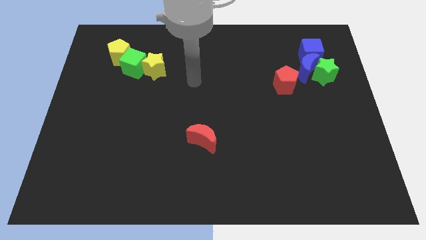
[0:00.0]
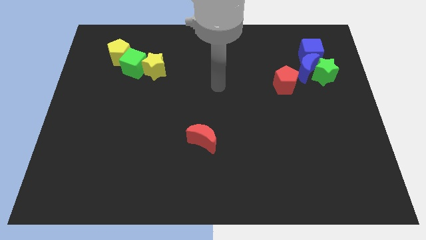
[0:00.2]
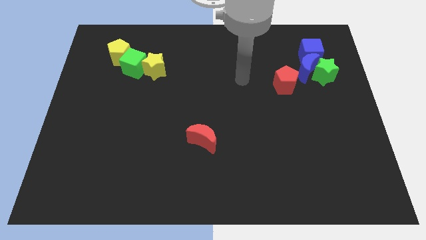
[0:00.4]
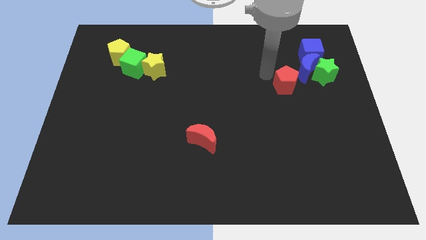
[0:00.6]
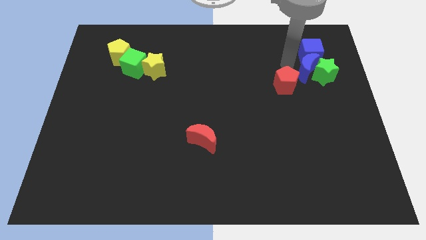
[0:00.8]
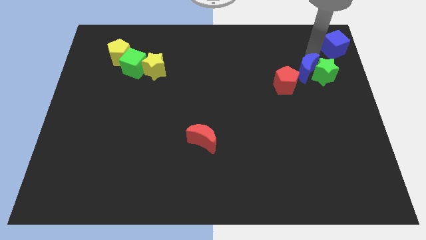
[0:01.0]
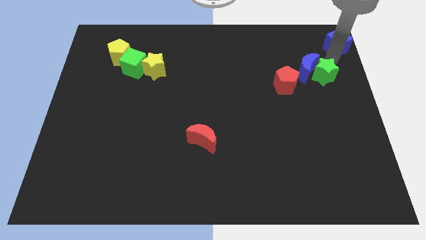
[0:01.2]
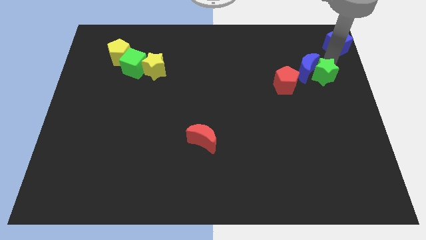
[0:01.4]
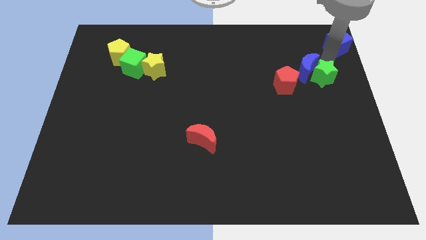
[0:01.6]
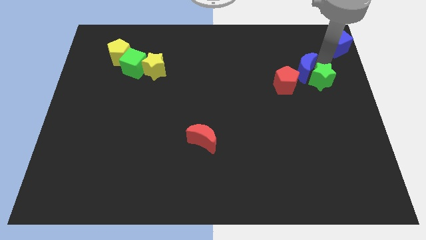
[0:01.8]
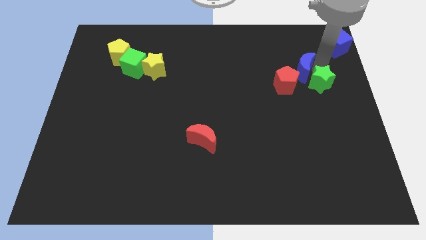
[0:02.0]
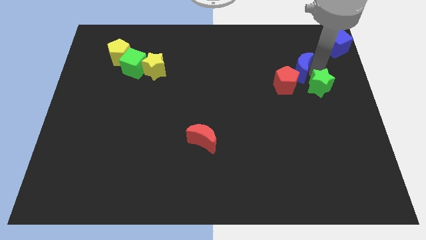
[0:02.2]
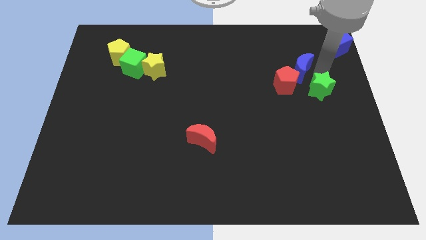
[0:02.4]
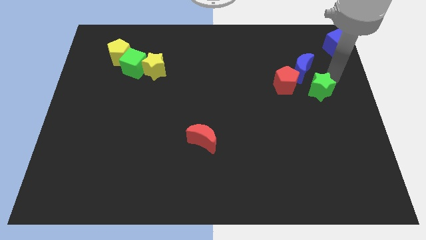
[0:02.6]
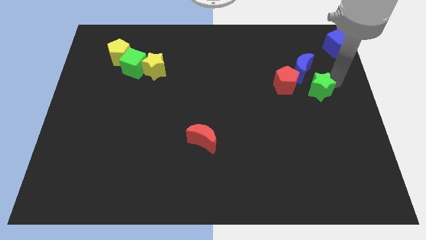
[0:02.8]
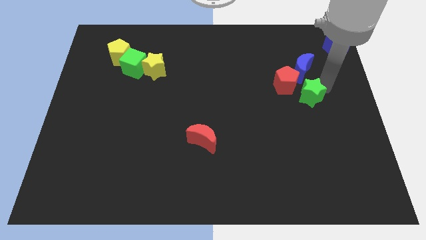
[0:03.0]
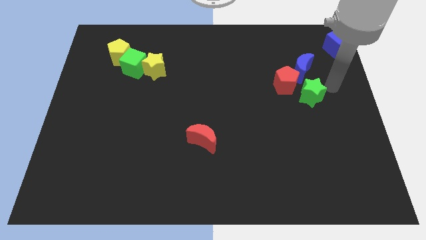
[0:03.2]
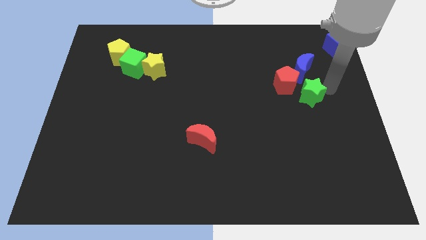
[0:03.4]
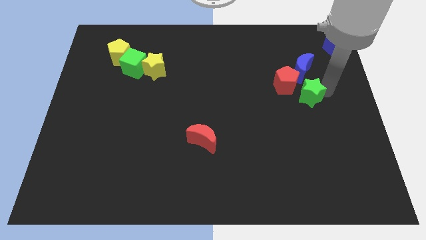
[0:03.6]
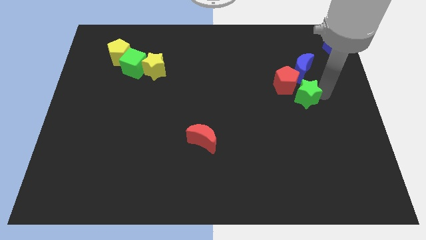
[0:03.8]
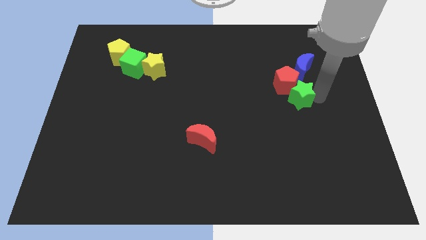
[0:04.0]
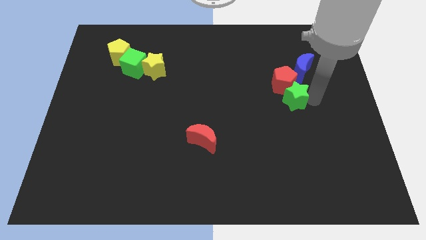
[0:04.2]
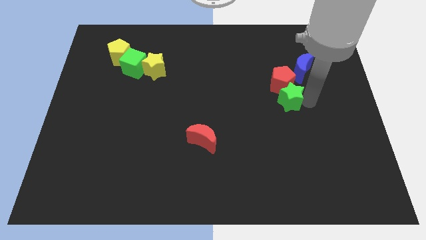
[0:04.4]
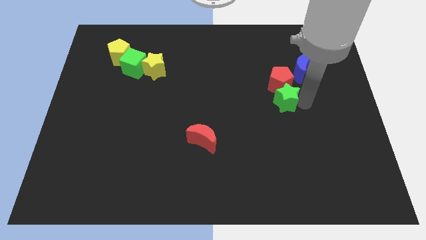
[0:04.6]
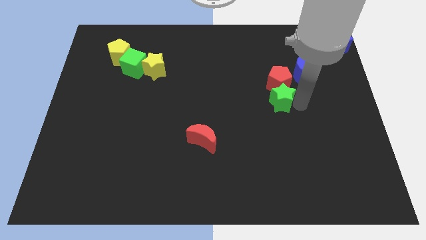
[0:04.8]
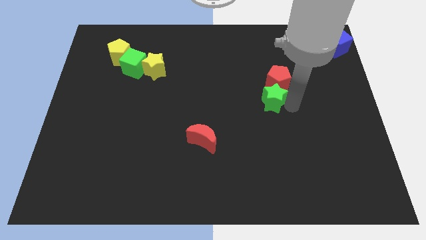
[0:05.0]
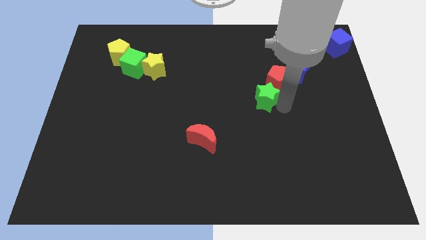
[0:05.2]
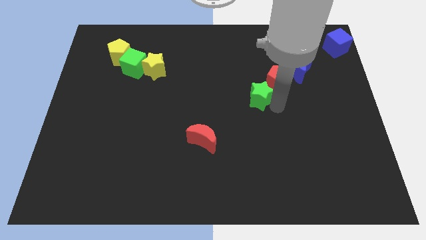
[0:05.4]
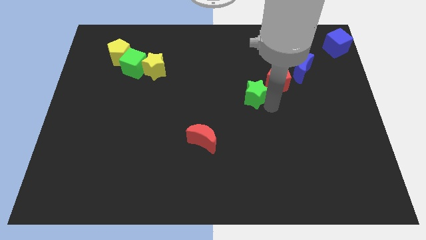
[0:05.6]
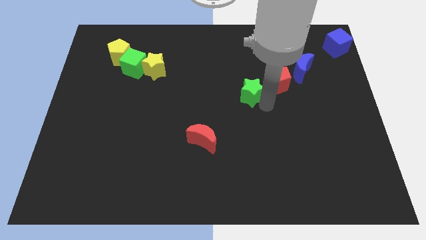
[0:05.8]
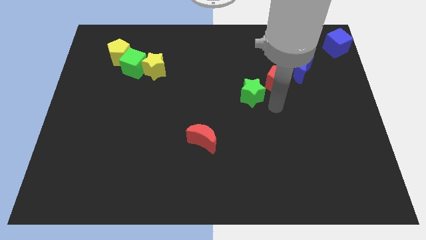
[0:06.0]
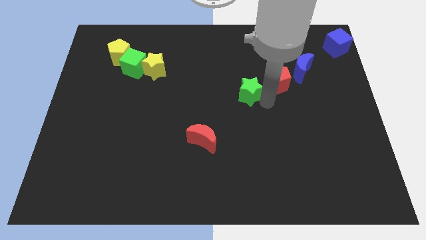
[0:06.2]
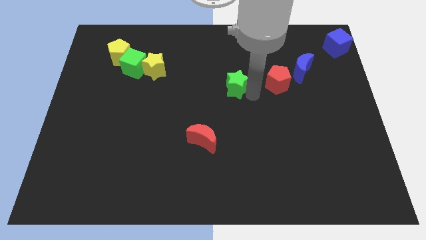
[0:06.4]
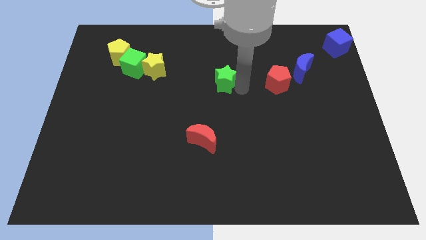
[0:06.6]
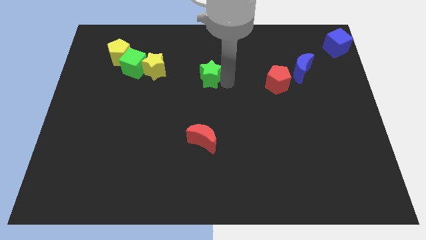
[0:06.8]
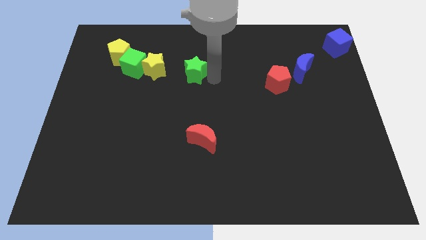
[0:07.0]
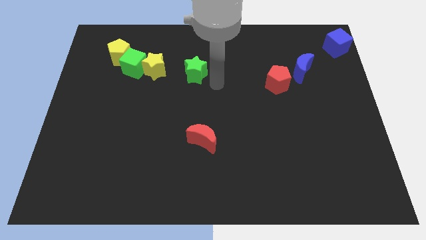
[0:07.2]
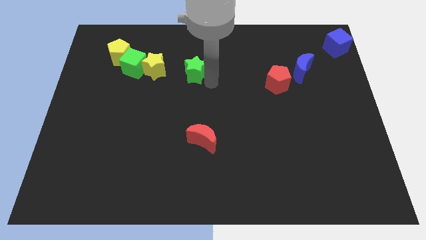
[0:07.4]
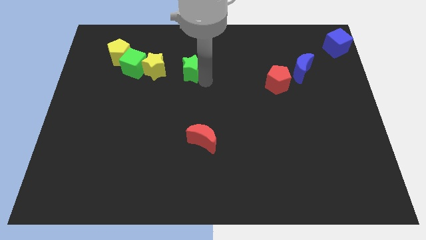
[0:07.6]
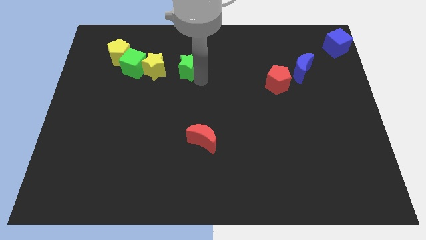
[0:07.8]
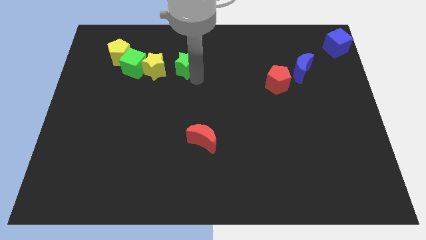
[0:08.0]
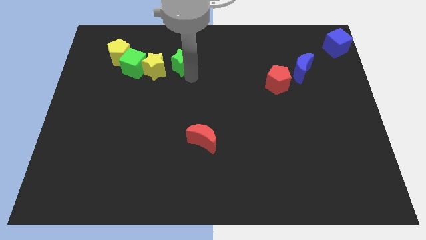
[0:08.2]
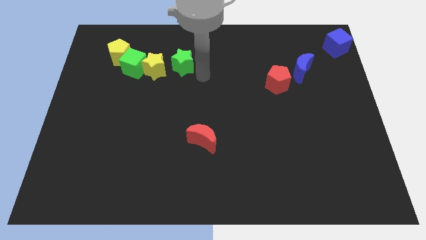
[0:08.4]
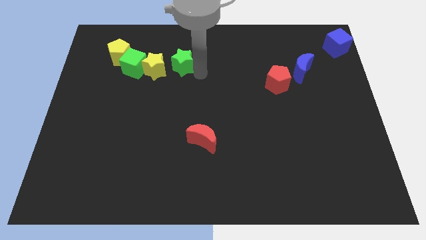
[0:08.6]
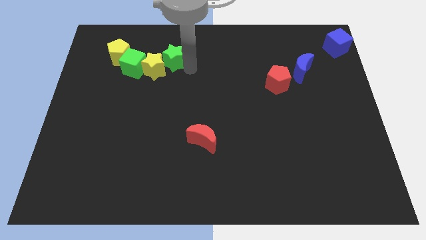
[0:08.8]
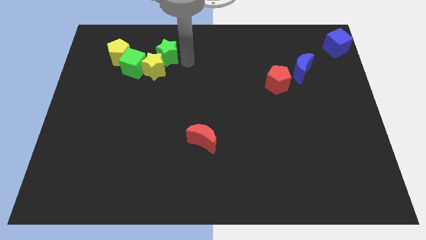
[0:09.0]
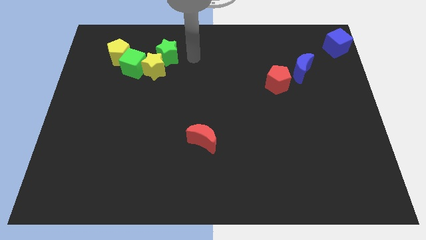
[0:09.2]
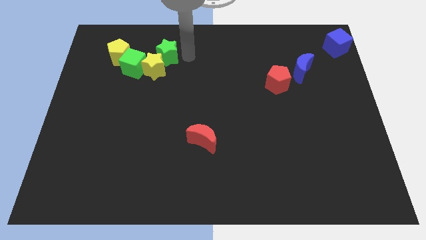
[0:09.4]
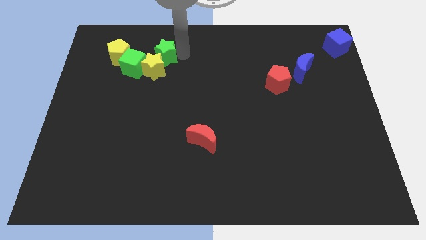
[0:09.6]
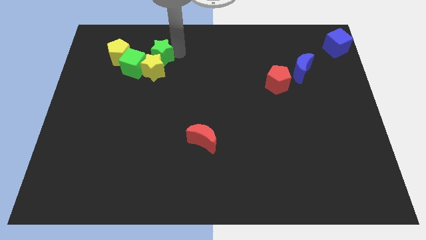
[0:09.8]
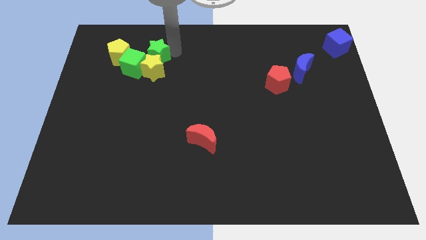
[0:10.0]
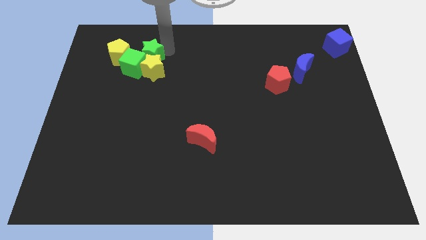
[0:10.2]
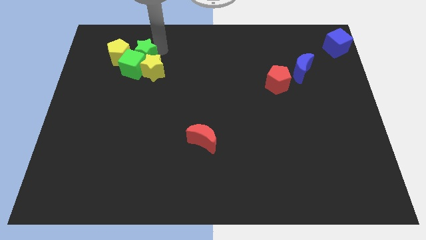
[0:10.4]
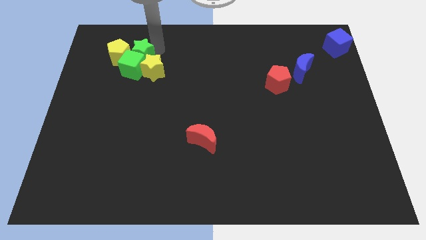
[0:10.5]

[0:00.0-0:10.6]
slide the green star to the yellow pentagon

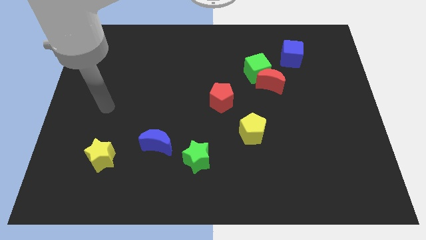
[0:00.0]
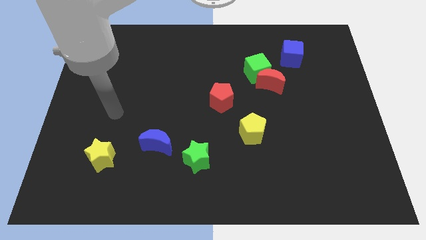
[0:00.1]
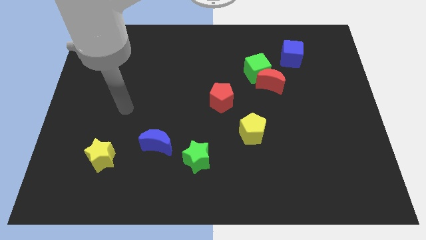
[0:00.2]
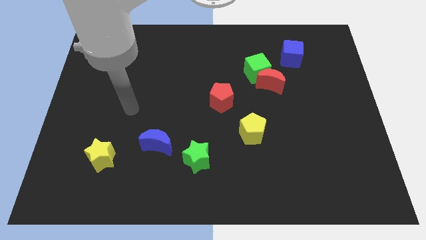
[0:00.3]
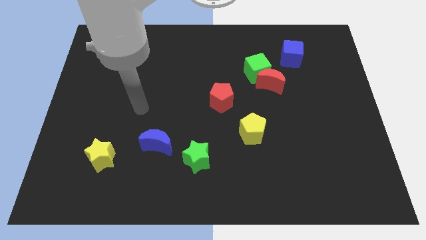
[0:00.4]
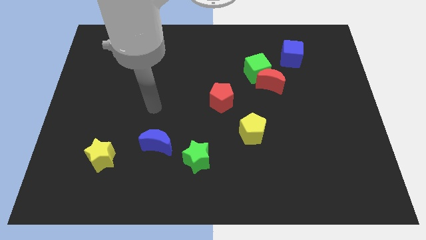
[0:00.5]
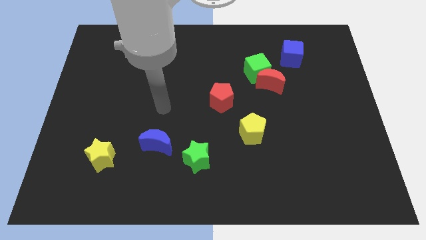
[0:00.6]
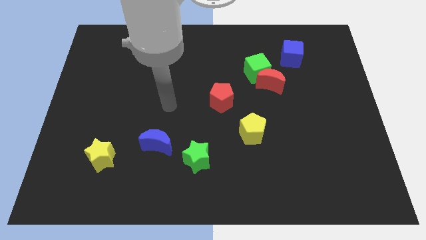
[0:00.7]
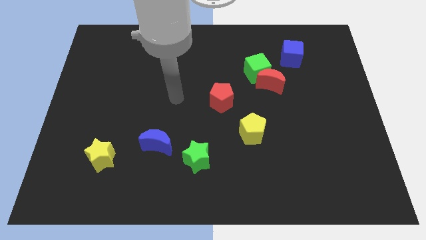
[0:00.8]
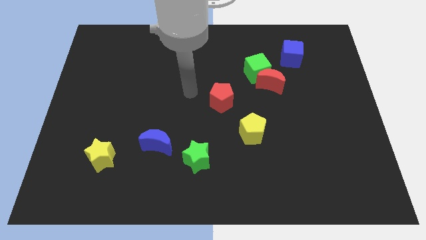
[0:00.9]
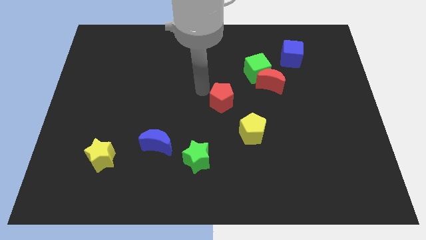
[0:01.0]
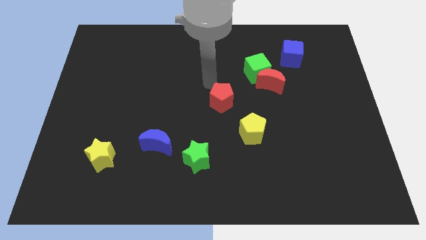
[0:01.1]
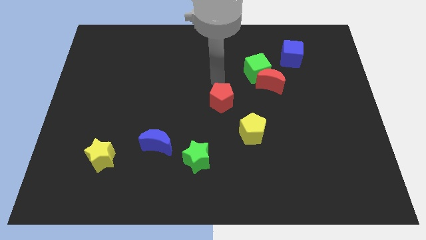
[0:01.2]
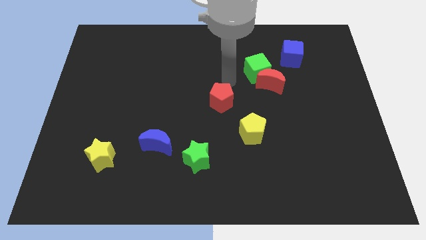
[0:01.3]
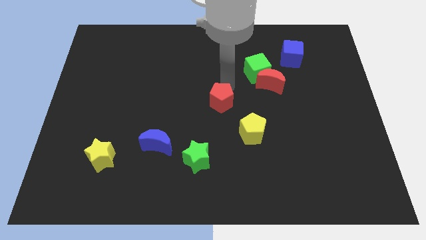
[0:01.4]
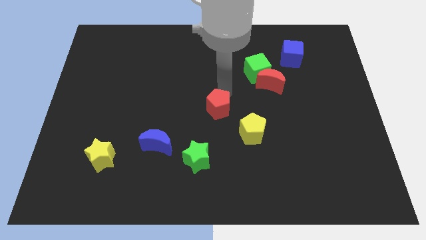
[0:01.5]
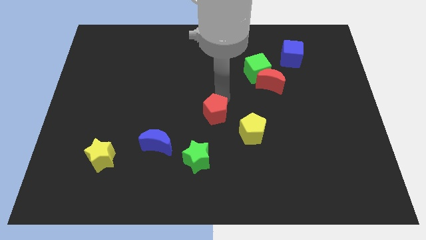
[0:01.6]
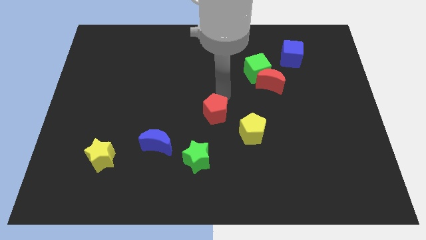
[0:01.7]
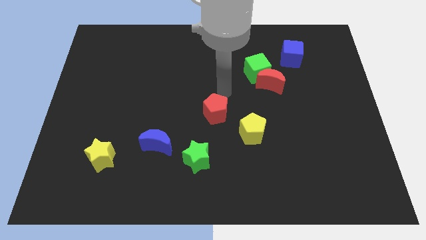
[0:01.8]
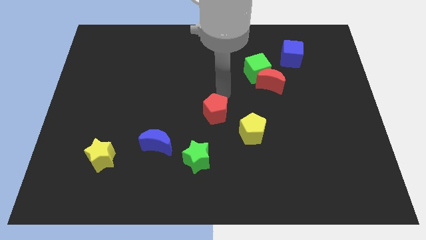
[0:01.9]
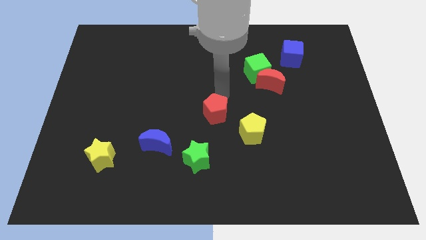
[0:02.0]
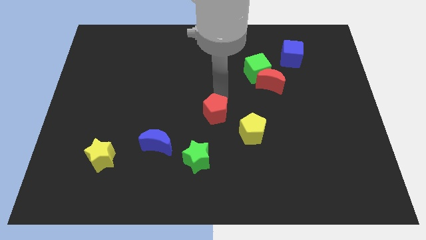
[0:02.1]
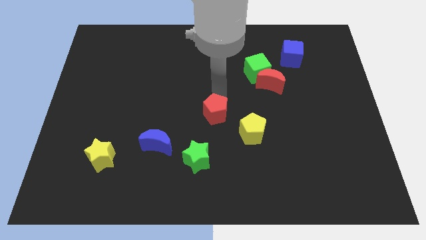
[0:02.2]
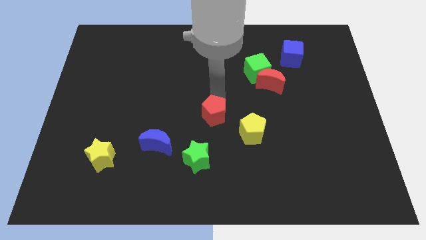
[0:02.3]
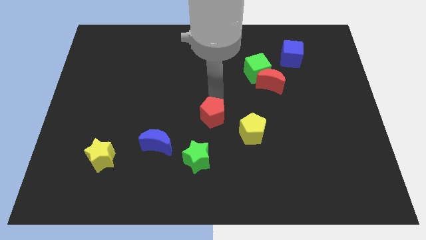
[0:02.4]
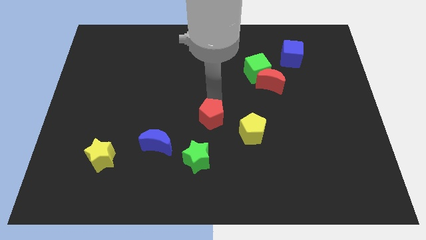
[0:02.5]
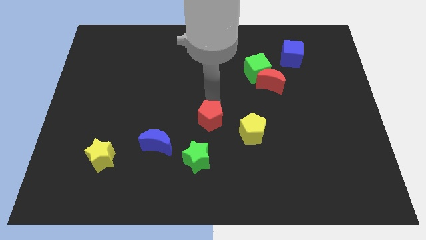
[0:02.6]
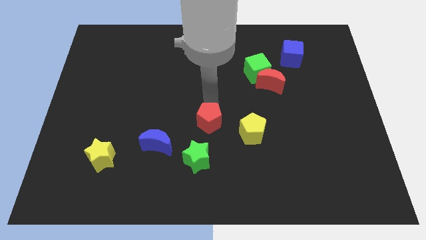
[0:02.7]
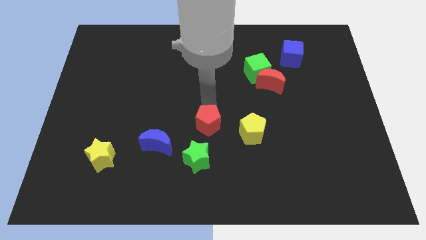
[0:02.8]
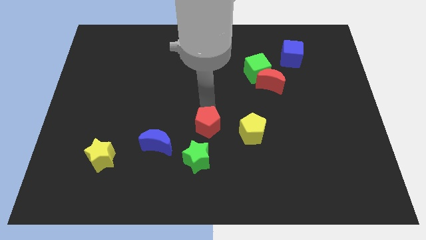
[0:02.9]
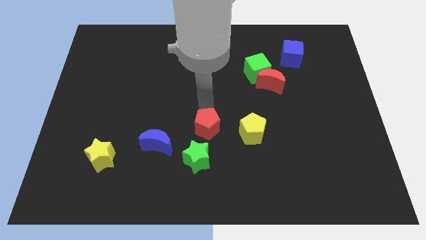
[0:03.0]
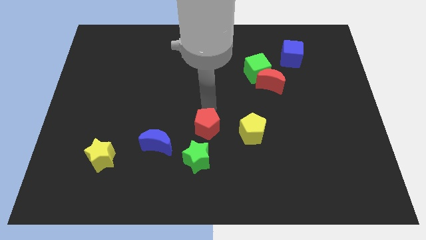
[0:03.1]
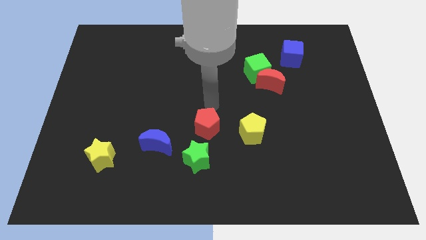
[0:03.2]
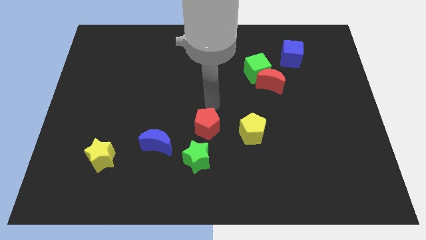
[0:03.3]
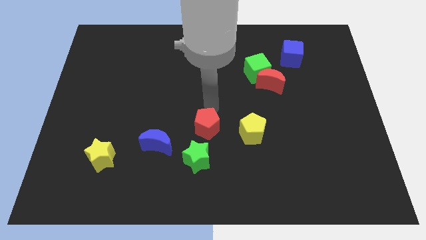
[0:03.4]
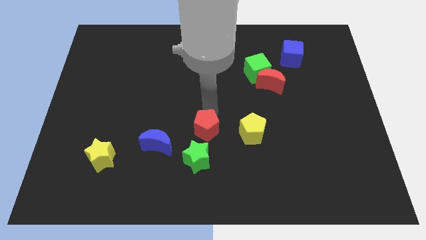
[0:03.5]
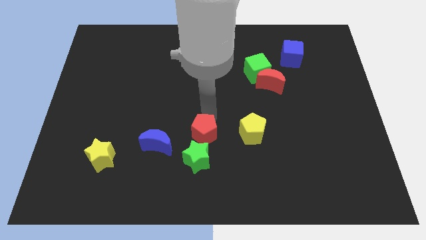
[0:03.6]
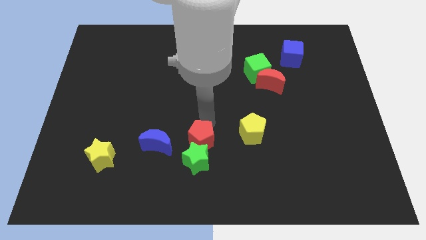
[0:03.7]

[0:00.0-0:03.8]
push the red pentagon to the green star
